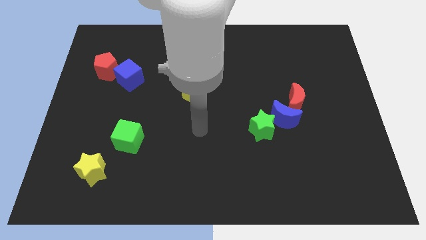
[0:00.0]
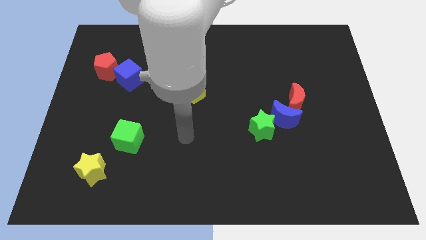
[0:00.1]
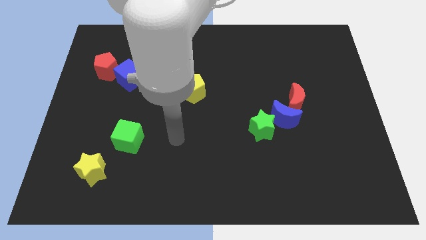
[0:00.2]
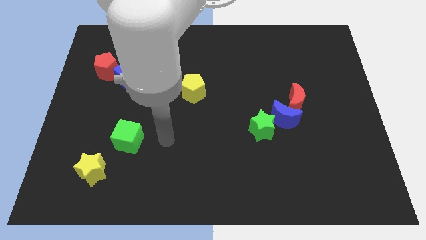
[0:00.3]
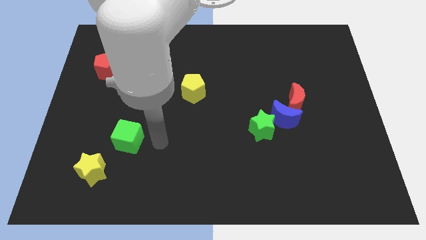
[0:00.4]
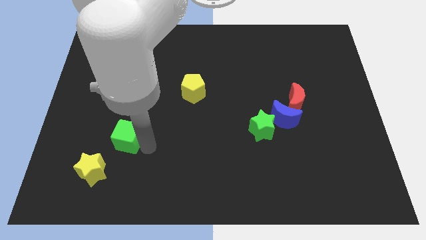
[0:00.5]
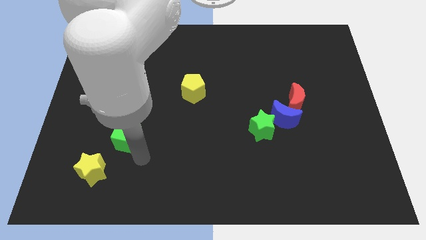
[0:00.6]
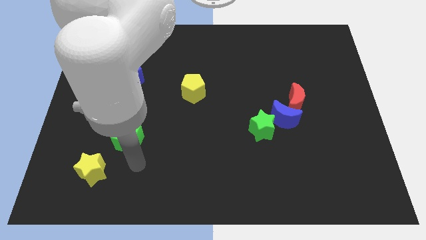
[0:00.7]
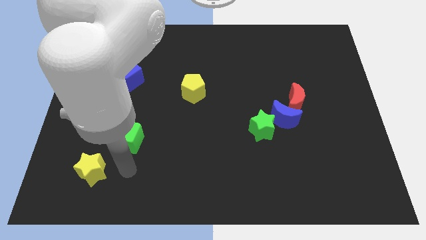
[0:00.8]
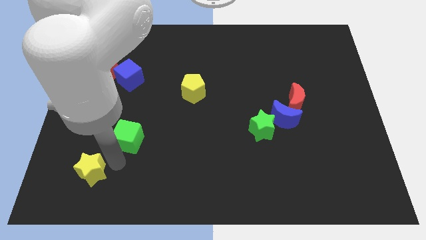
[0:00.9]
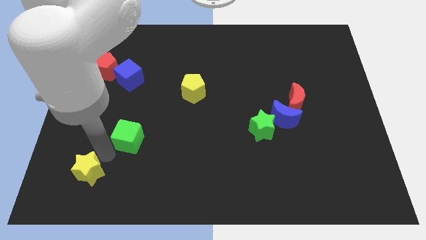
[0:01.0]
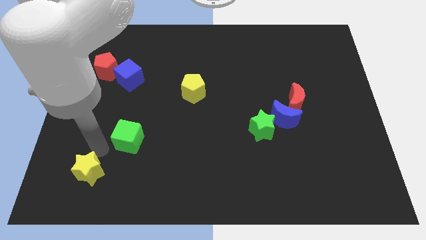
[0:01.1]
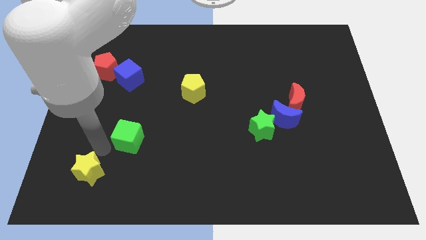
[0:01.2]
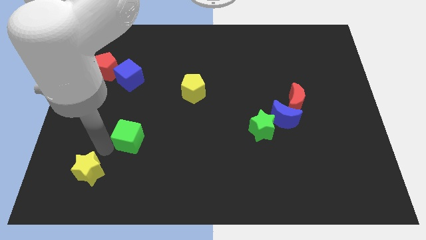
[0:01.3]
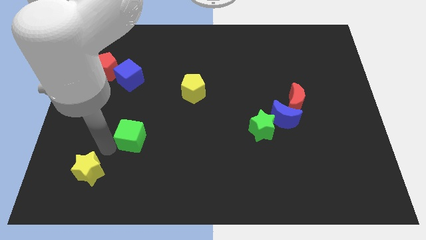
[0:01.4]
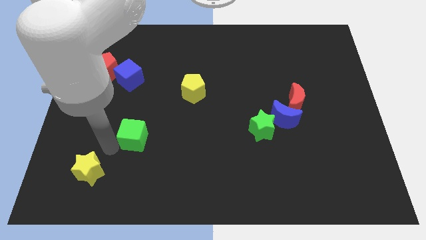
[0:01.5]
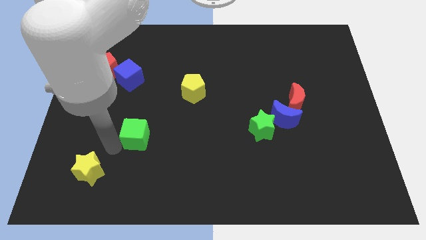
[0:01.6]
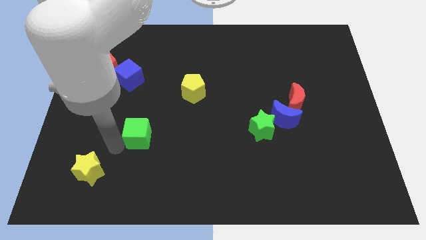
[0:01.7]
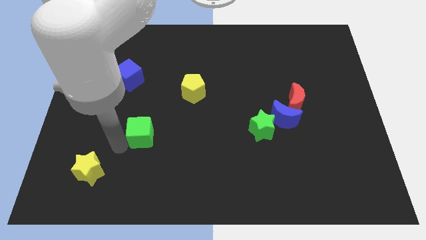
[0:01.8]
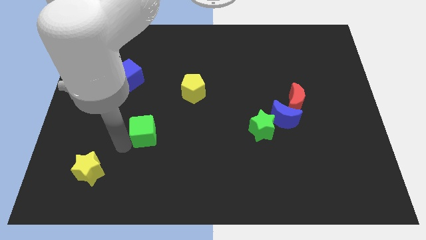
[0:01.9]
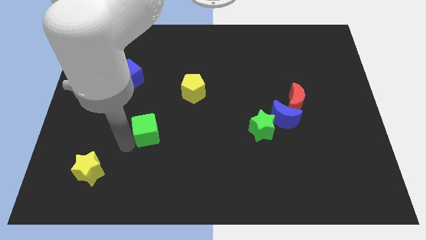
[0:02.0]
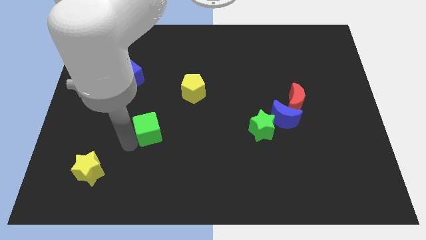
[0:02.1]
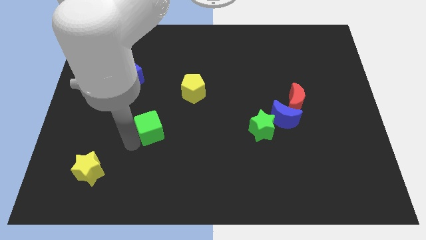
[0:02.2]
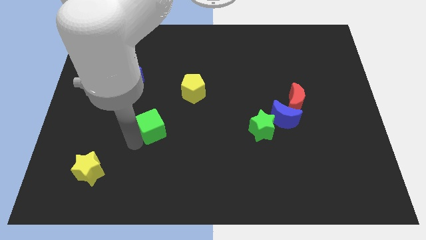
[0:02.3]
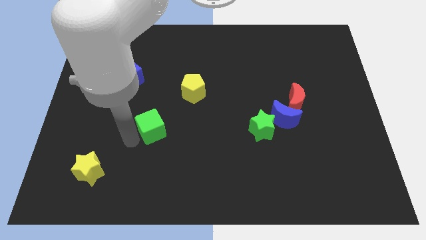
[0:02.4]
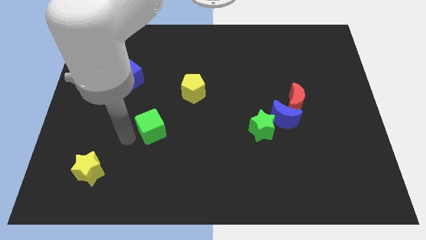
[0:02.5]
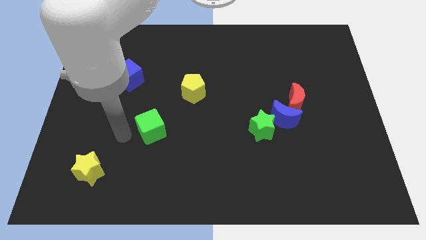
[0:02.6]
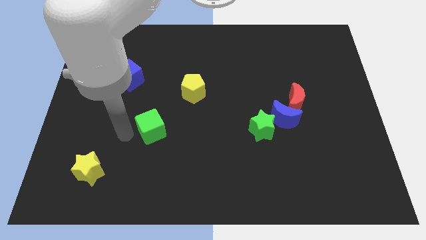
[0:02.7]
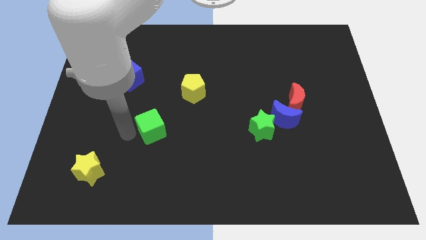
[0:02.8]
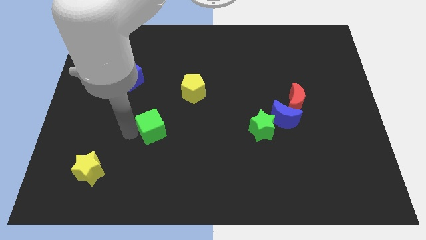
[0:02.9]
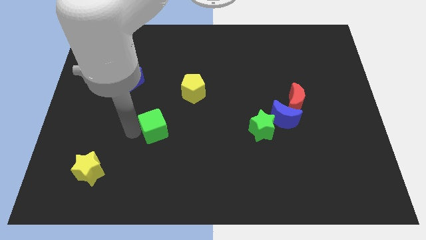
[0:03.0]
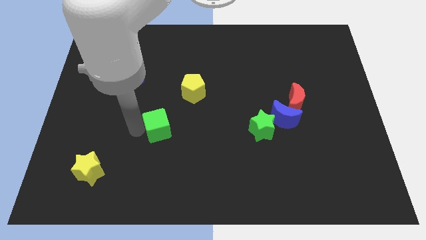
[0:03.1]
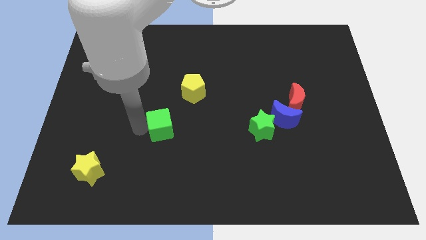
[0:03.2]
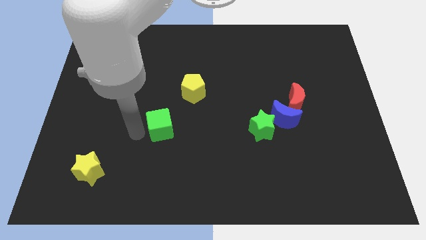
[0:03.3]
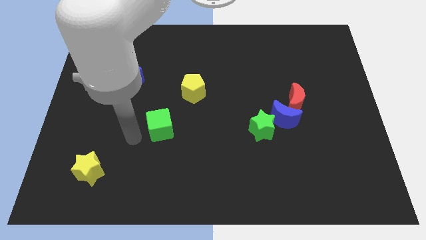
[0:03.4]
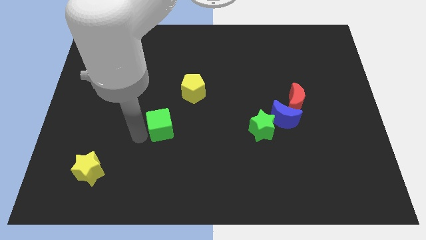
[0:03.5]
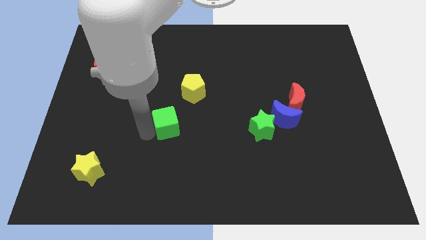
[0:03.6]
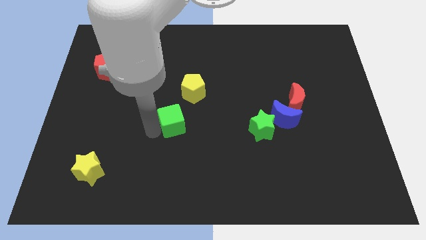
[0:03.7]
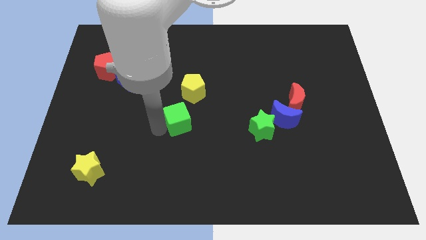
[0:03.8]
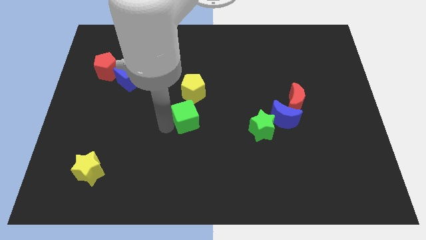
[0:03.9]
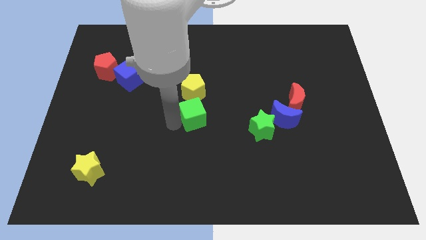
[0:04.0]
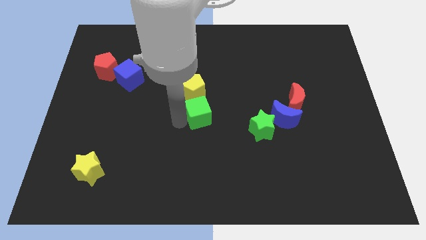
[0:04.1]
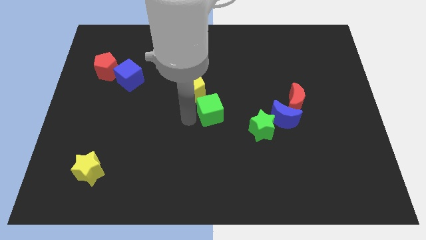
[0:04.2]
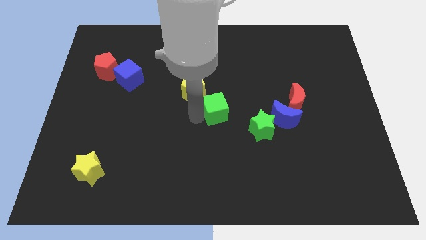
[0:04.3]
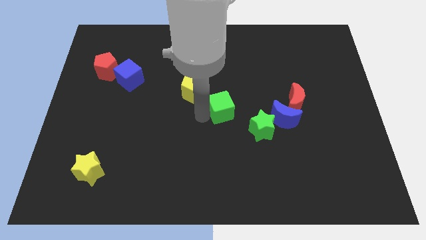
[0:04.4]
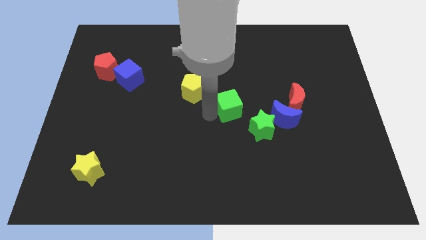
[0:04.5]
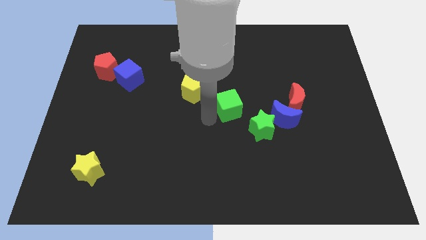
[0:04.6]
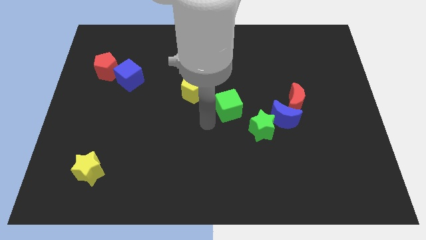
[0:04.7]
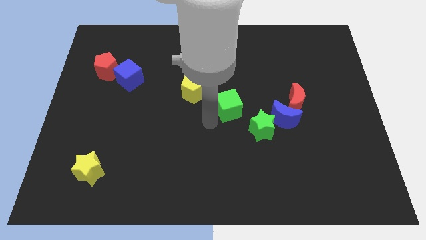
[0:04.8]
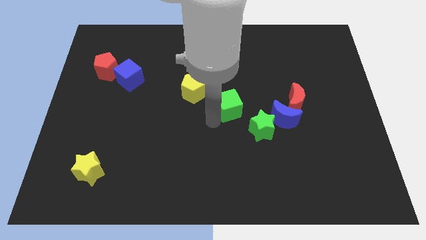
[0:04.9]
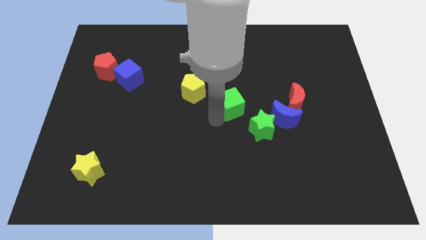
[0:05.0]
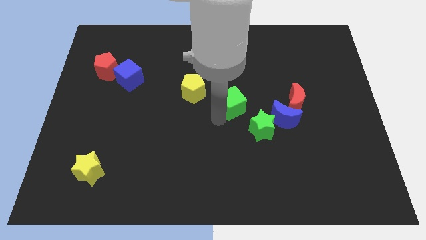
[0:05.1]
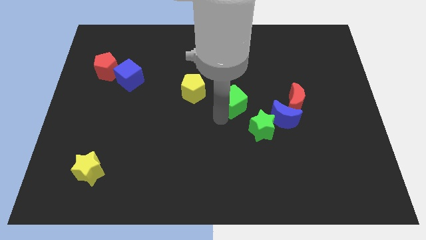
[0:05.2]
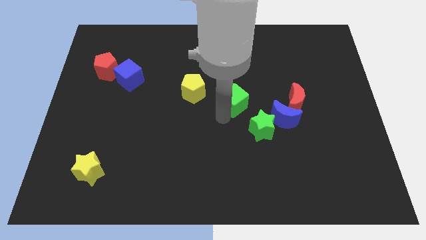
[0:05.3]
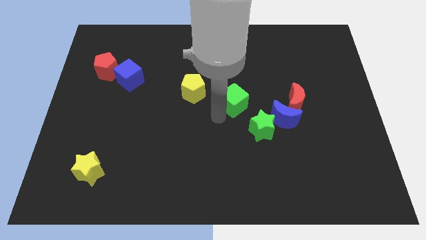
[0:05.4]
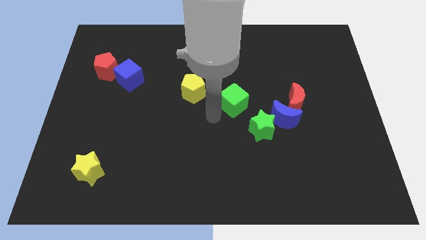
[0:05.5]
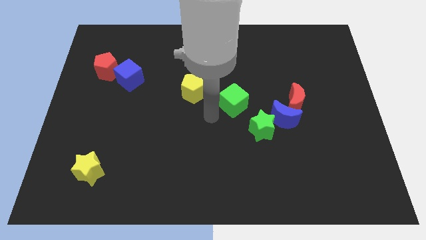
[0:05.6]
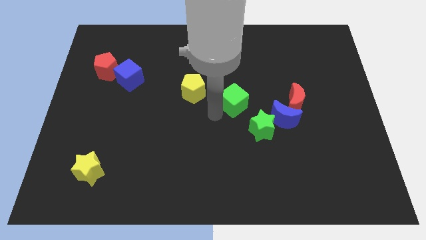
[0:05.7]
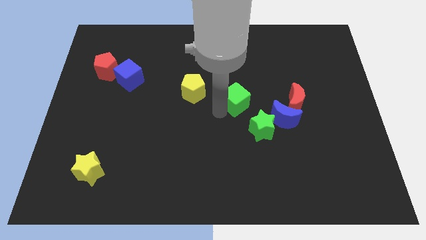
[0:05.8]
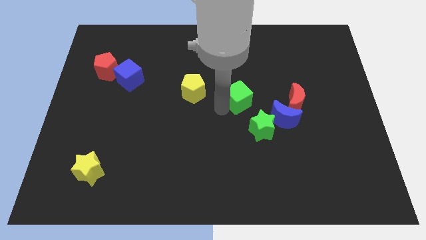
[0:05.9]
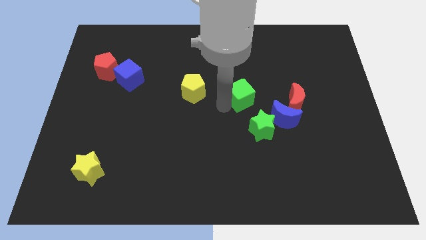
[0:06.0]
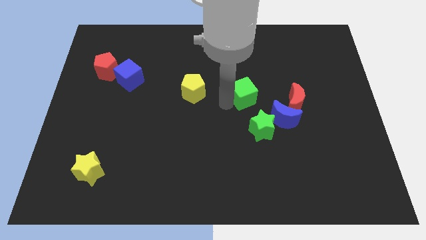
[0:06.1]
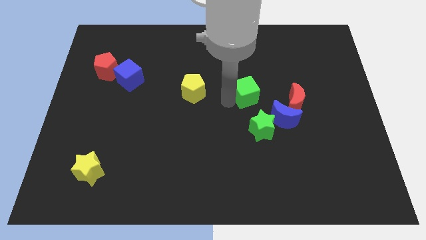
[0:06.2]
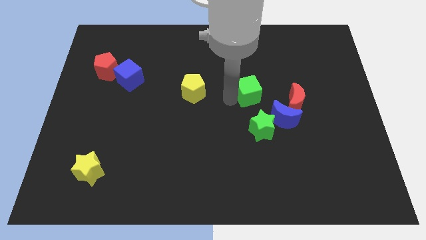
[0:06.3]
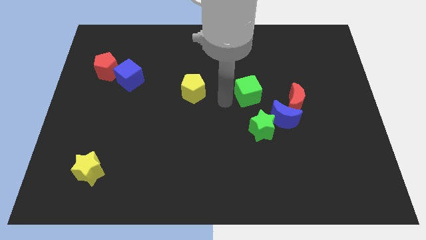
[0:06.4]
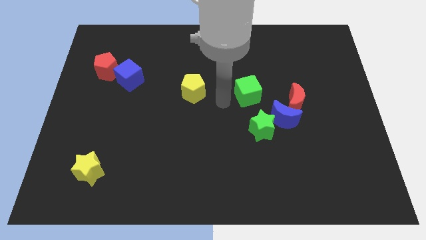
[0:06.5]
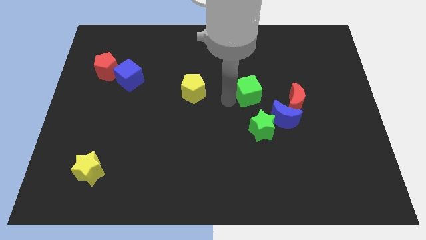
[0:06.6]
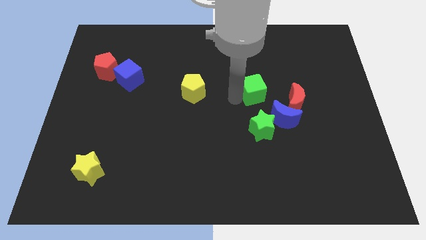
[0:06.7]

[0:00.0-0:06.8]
push the green cube to the top left side of the red moon

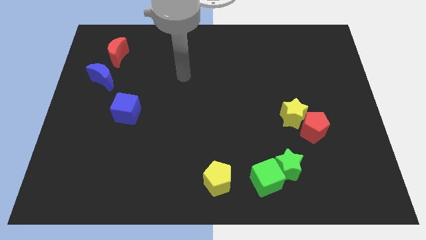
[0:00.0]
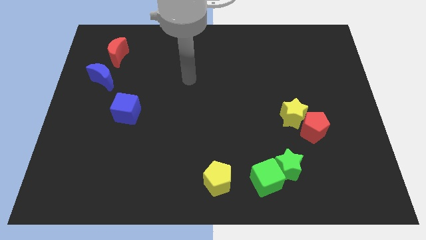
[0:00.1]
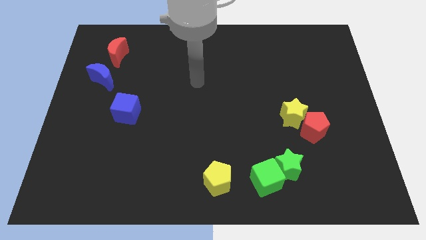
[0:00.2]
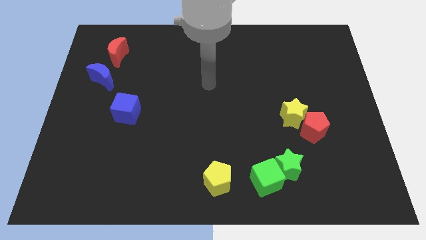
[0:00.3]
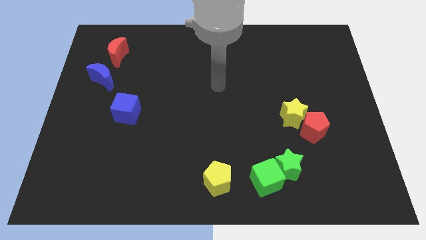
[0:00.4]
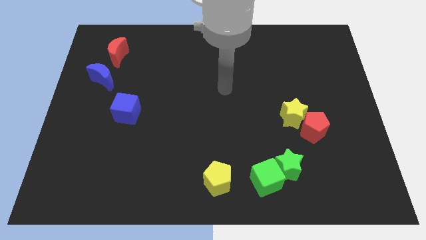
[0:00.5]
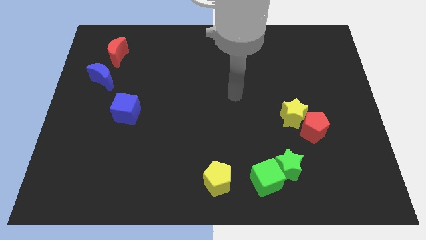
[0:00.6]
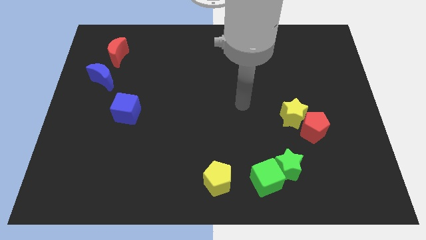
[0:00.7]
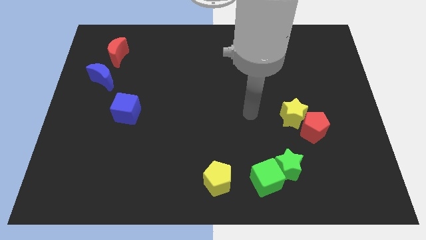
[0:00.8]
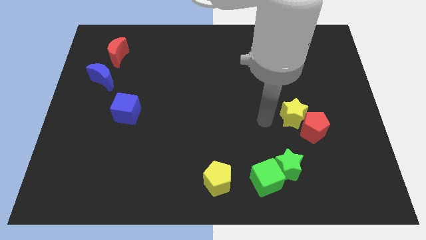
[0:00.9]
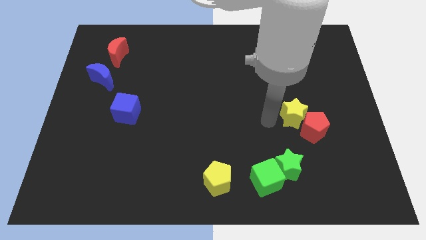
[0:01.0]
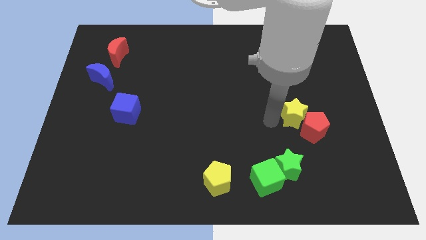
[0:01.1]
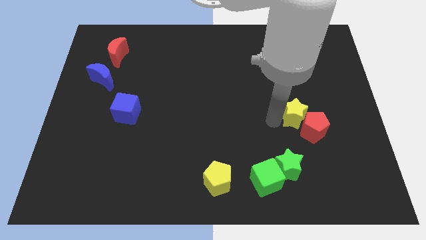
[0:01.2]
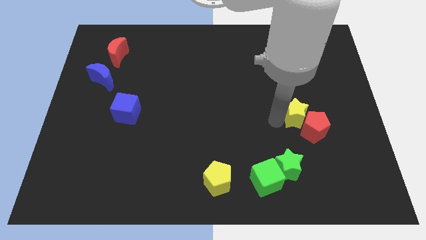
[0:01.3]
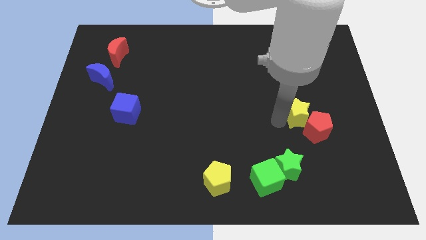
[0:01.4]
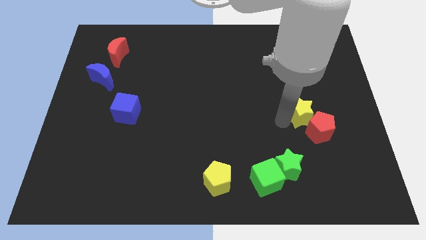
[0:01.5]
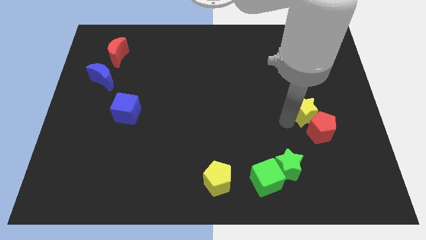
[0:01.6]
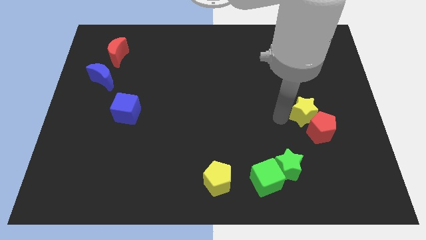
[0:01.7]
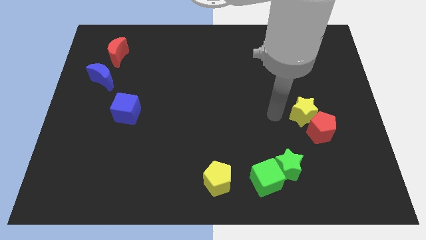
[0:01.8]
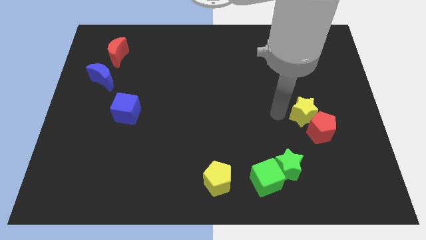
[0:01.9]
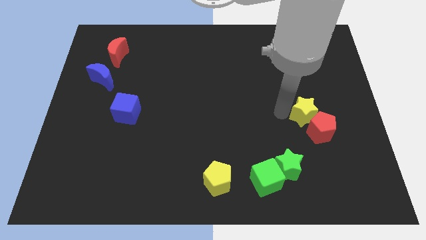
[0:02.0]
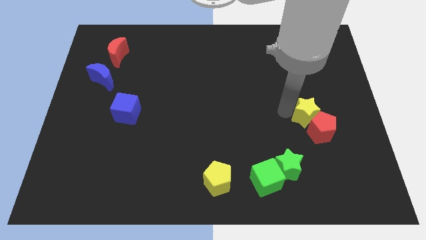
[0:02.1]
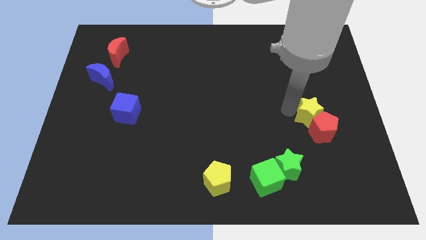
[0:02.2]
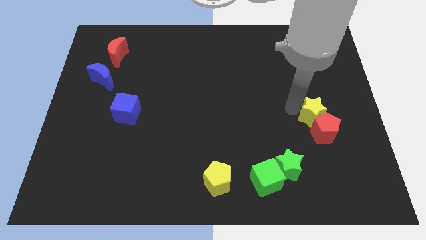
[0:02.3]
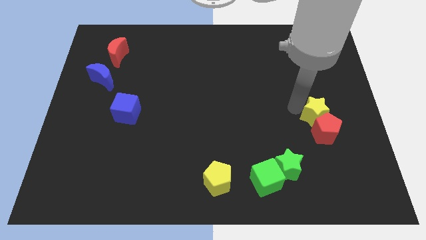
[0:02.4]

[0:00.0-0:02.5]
move the yellow star to the top right side of the red pentagon
